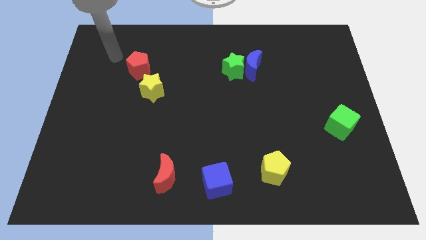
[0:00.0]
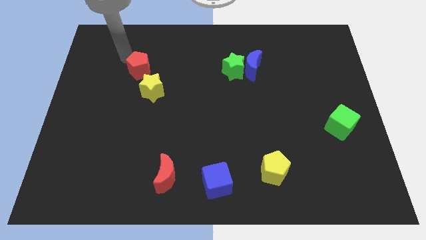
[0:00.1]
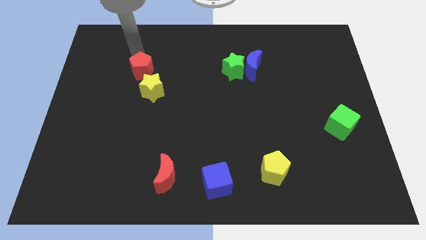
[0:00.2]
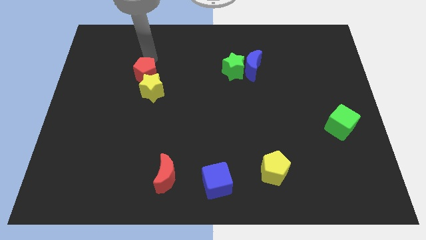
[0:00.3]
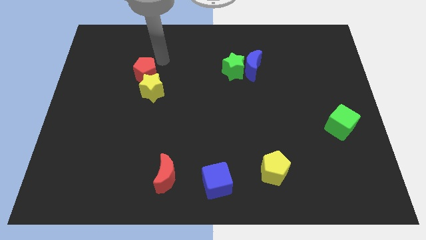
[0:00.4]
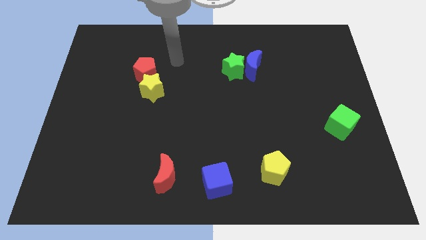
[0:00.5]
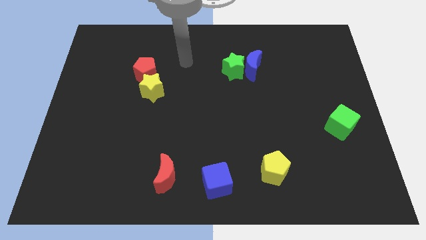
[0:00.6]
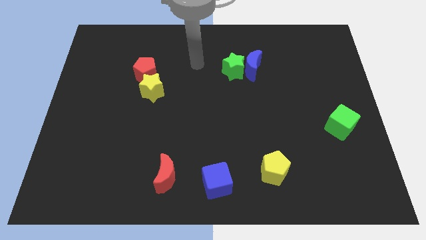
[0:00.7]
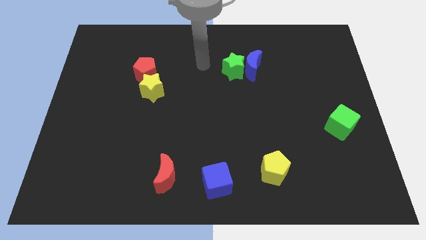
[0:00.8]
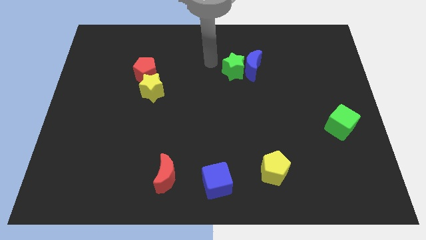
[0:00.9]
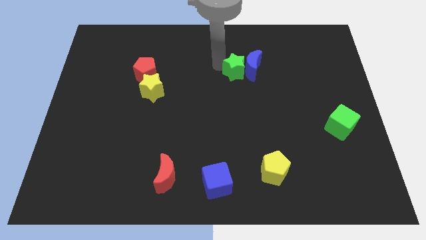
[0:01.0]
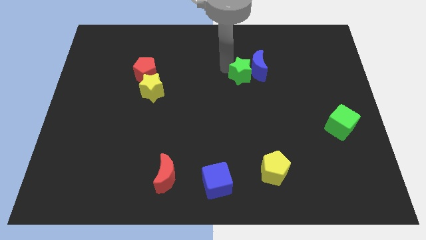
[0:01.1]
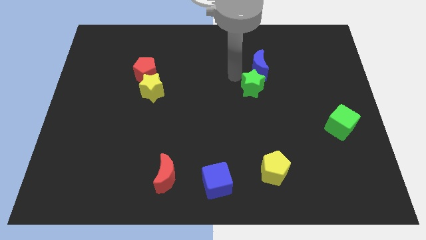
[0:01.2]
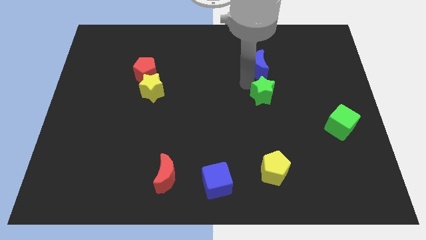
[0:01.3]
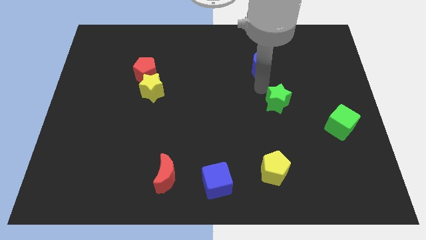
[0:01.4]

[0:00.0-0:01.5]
pull the blue moon apart from the green star

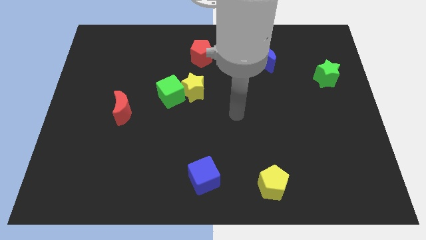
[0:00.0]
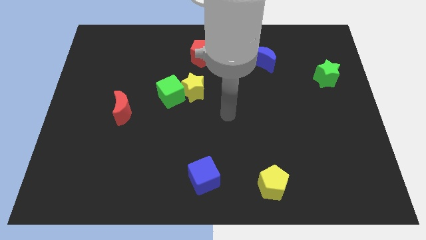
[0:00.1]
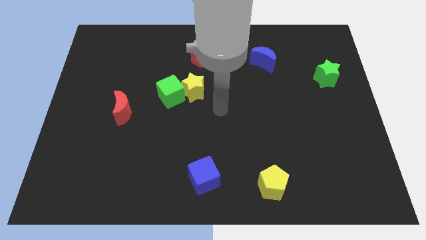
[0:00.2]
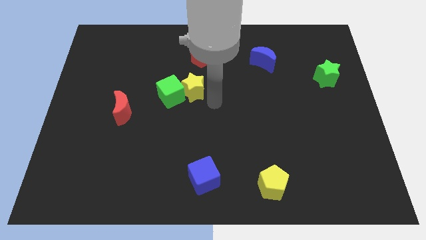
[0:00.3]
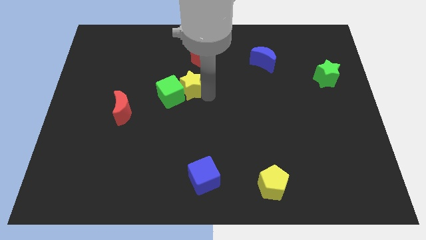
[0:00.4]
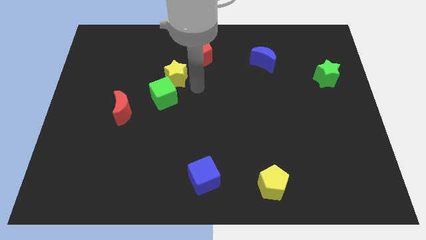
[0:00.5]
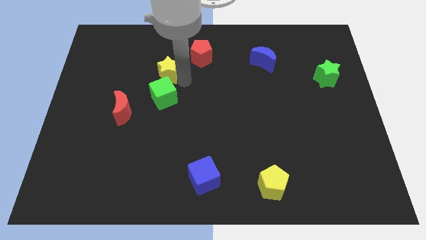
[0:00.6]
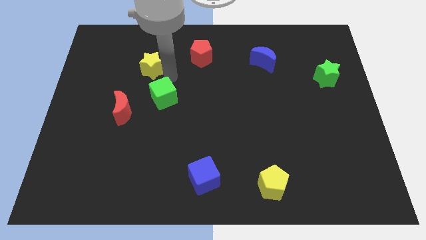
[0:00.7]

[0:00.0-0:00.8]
move the green cube away from the yellow star

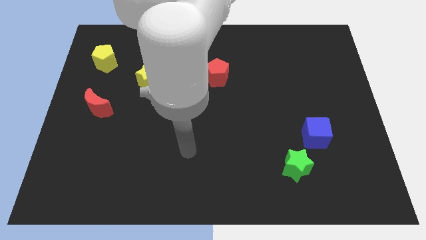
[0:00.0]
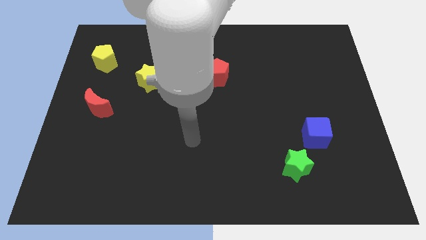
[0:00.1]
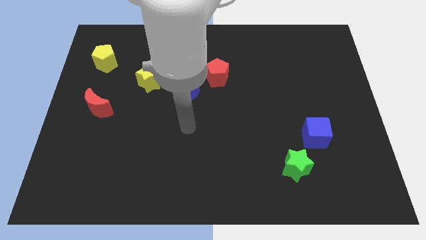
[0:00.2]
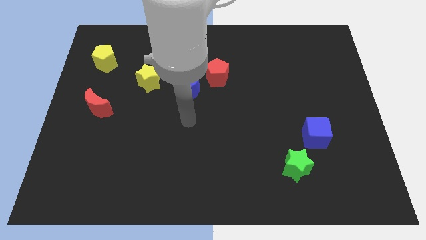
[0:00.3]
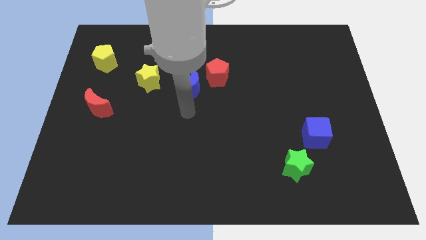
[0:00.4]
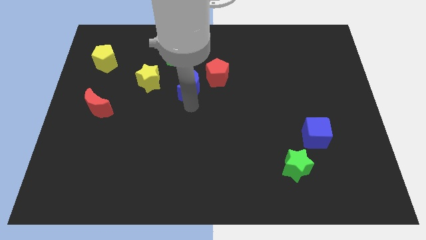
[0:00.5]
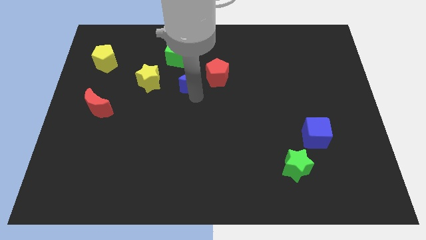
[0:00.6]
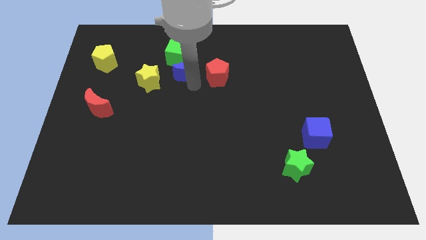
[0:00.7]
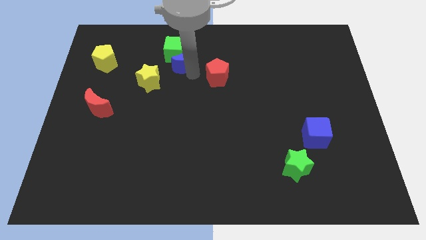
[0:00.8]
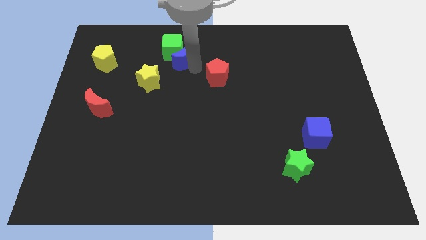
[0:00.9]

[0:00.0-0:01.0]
move the red pentagon away from the blue moon

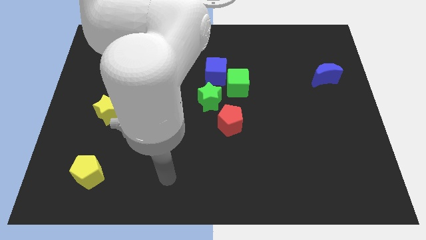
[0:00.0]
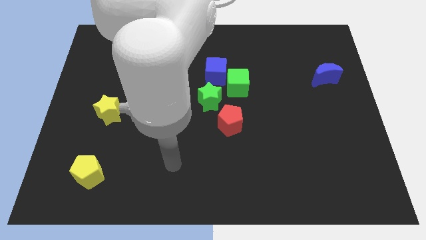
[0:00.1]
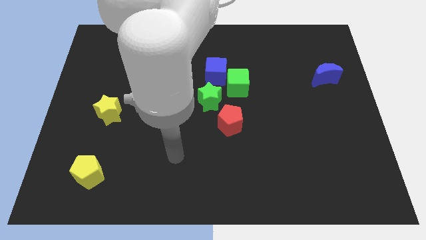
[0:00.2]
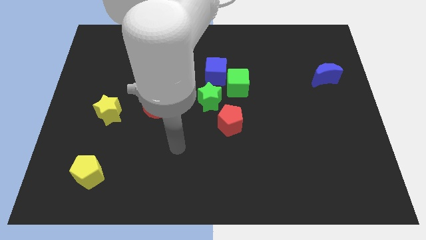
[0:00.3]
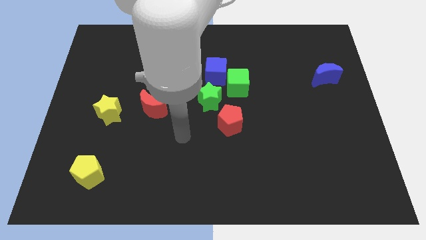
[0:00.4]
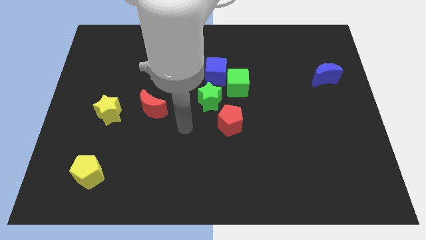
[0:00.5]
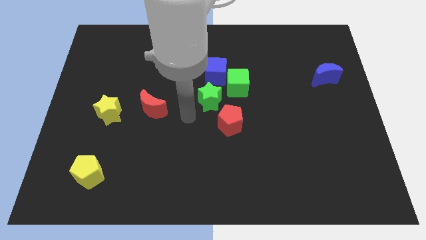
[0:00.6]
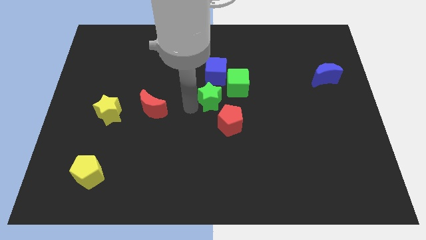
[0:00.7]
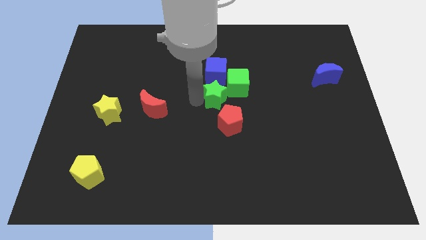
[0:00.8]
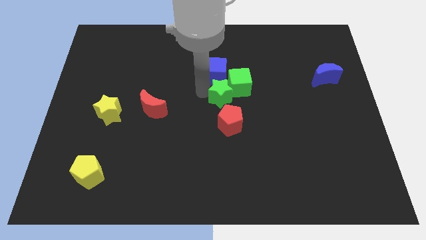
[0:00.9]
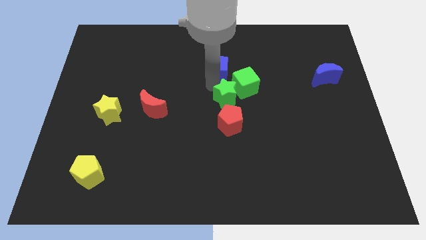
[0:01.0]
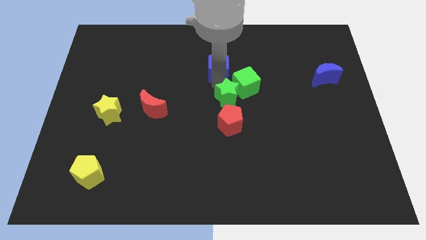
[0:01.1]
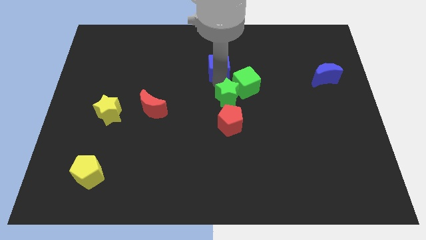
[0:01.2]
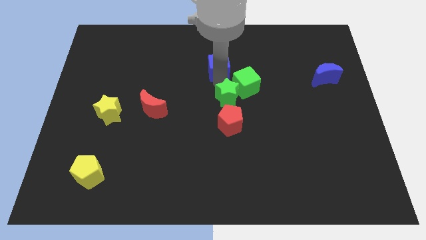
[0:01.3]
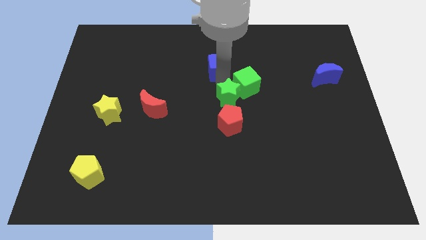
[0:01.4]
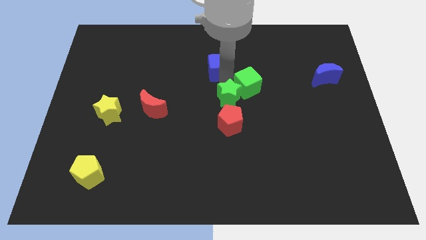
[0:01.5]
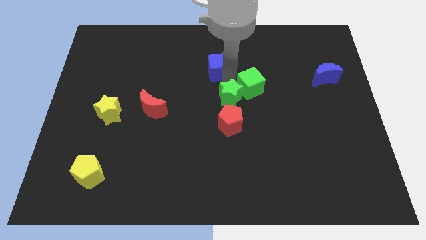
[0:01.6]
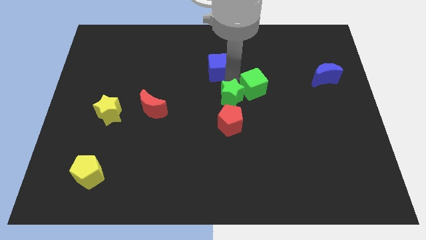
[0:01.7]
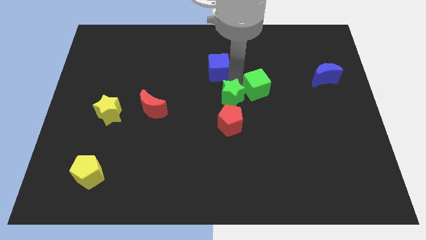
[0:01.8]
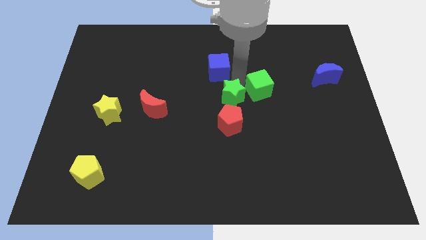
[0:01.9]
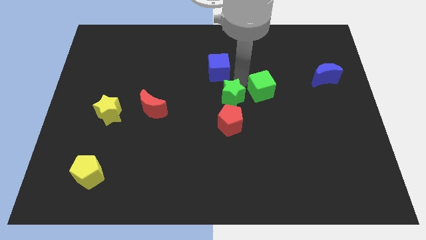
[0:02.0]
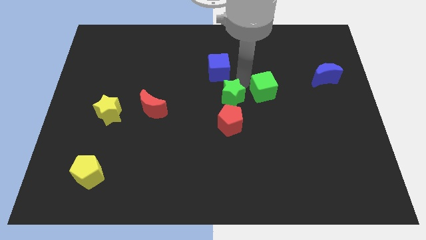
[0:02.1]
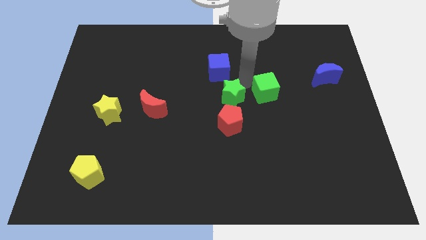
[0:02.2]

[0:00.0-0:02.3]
move the green cube away from the blue cube and green star

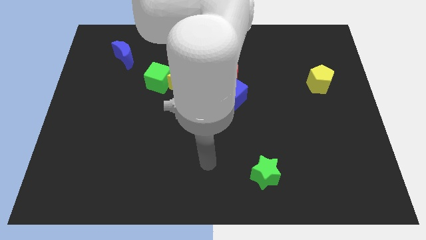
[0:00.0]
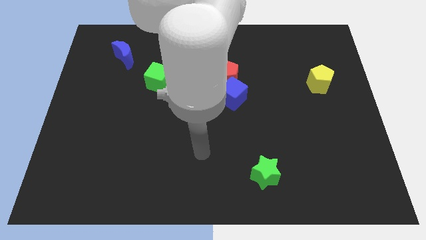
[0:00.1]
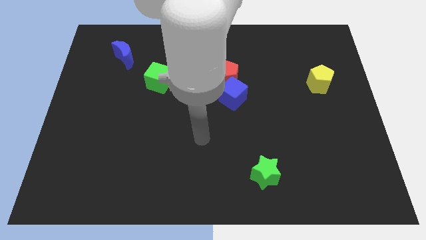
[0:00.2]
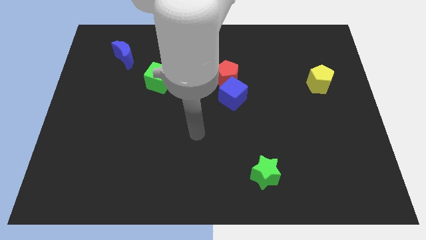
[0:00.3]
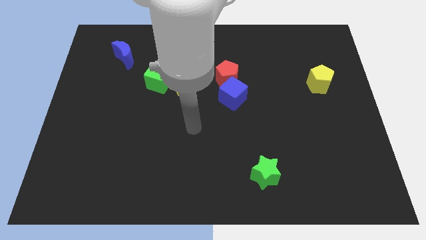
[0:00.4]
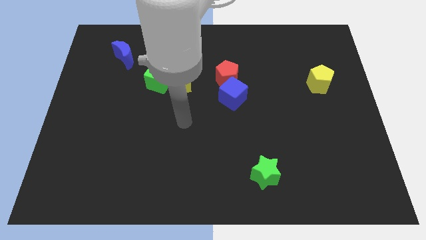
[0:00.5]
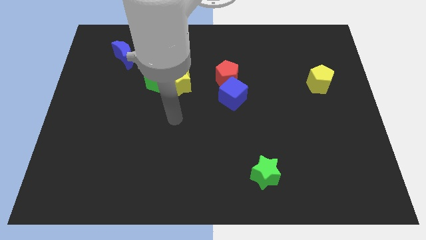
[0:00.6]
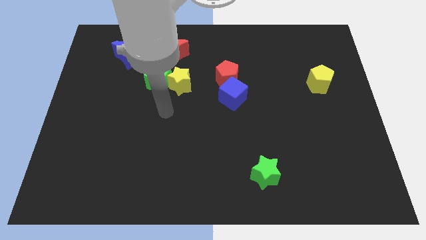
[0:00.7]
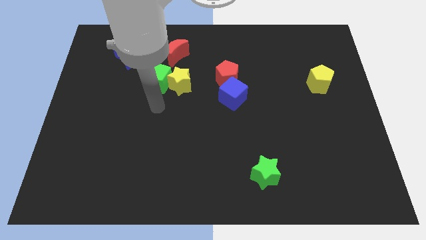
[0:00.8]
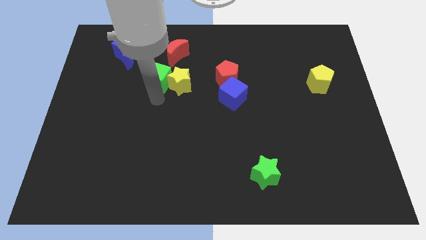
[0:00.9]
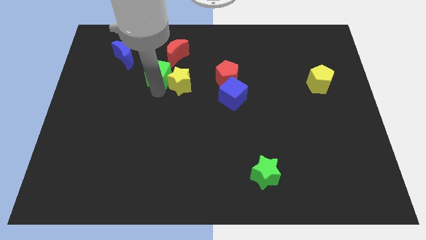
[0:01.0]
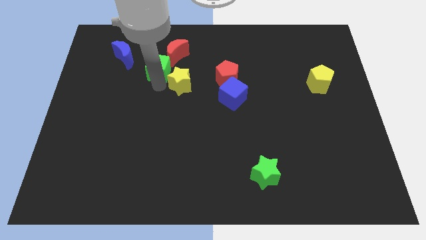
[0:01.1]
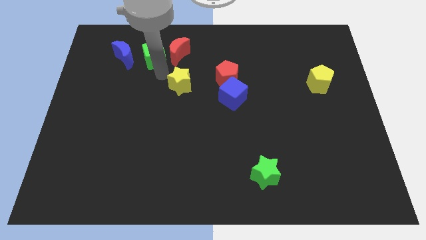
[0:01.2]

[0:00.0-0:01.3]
pull the yellow star apart from the green cube

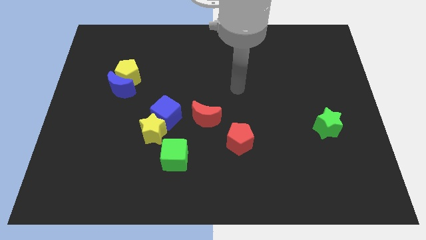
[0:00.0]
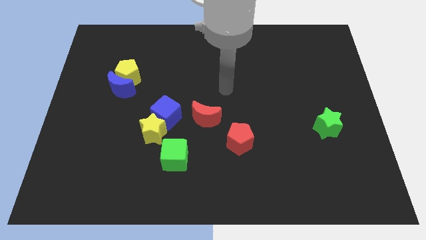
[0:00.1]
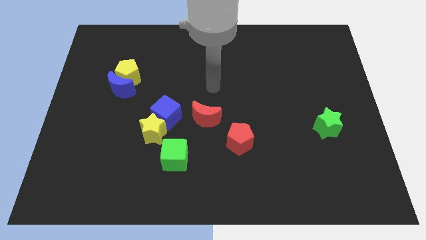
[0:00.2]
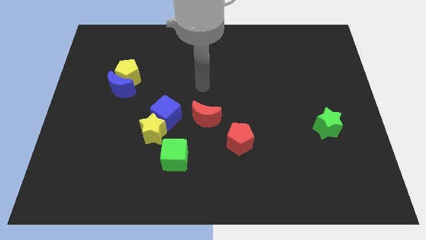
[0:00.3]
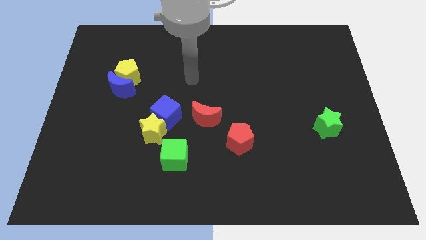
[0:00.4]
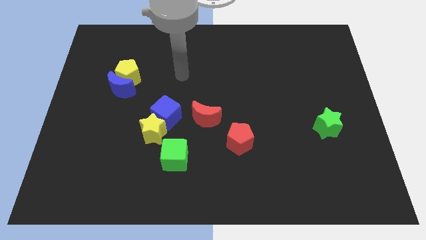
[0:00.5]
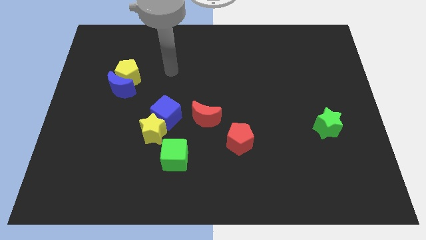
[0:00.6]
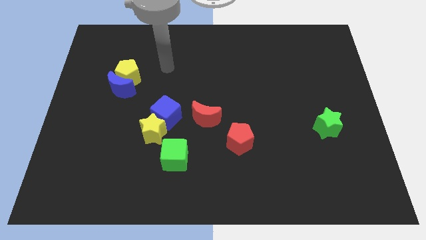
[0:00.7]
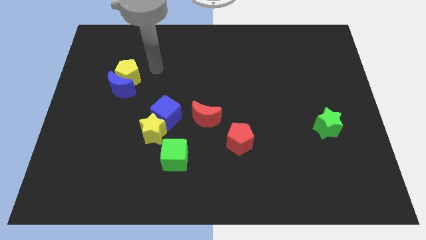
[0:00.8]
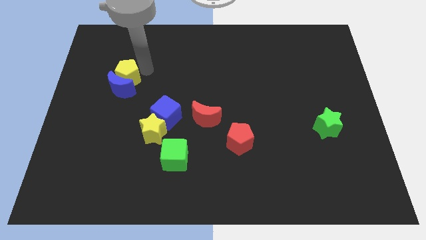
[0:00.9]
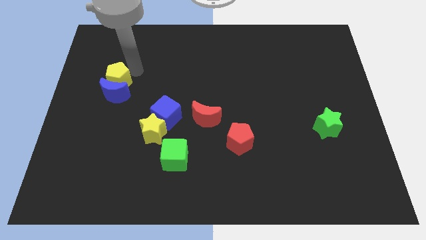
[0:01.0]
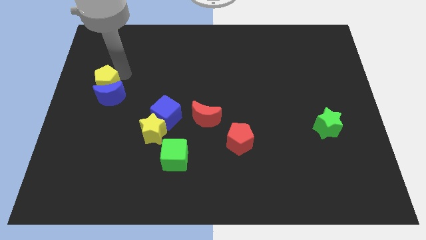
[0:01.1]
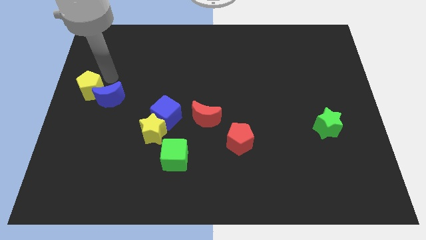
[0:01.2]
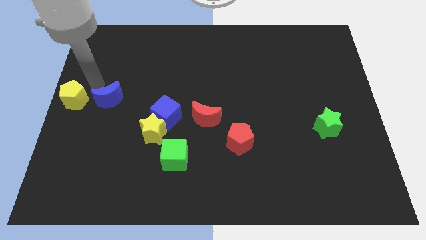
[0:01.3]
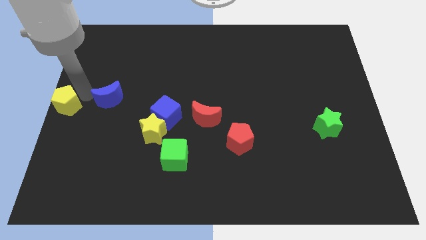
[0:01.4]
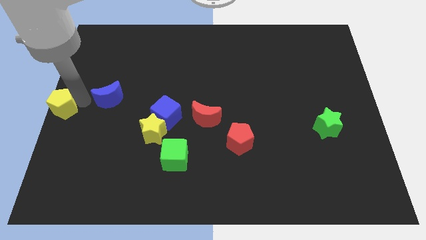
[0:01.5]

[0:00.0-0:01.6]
move the blue moon away from the yellow pentagon

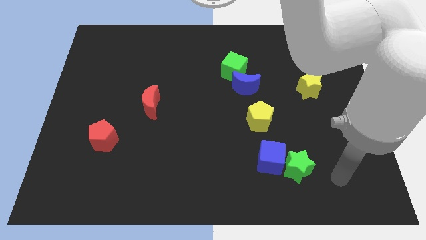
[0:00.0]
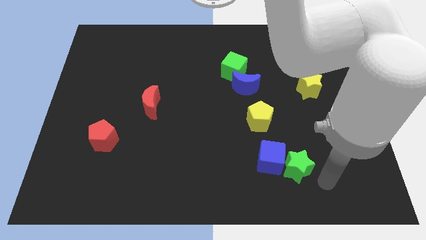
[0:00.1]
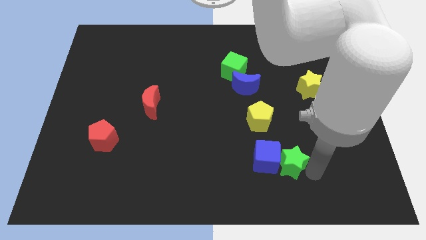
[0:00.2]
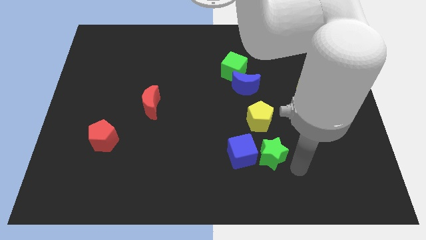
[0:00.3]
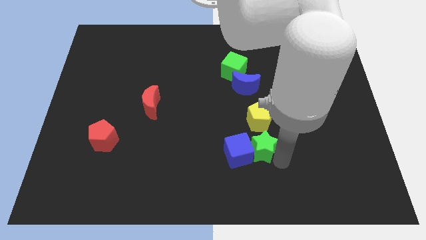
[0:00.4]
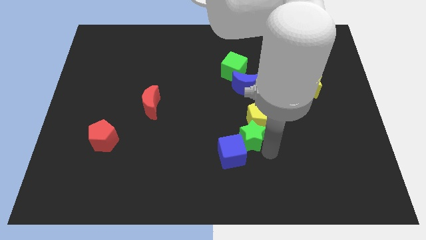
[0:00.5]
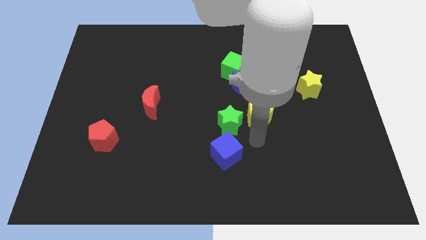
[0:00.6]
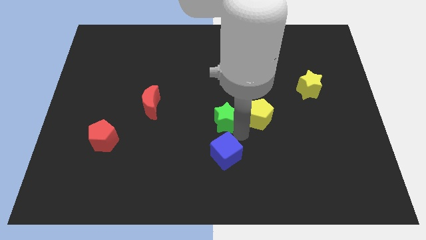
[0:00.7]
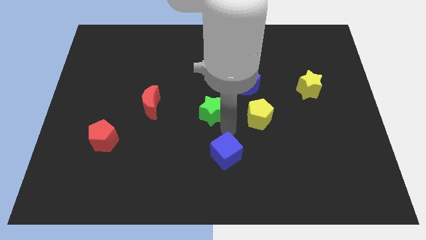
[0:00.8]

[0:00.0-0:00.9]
pull the blue cube apart from the green star
